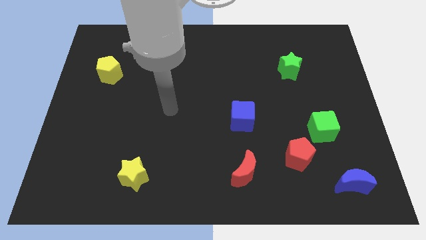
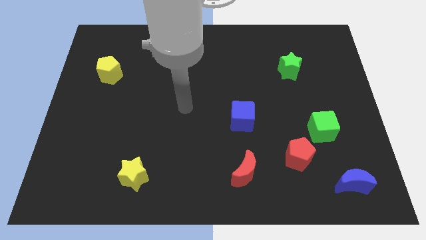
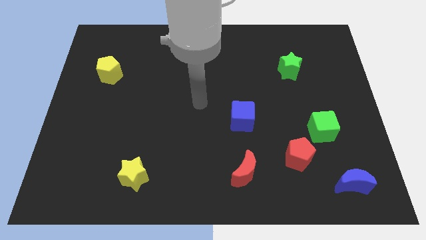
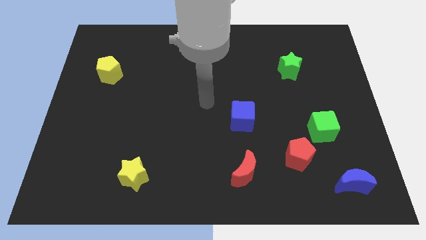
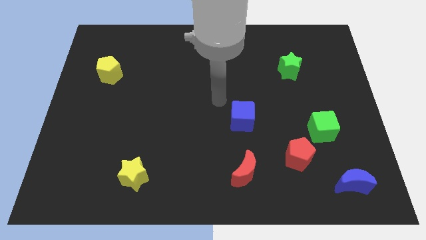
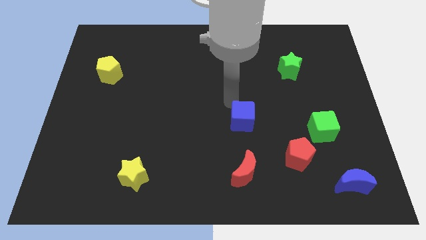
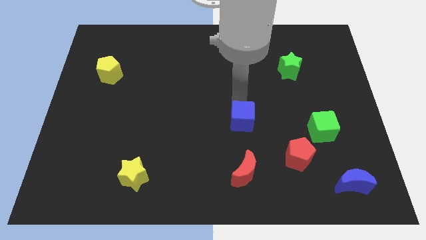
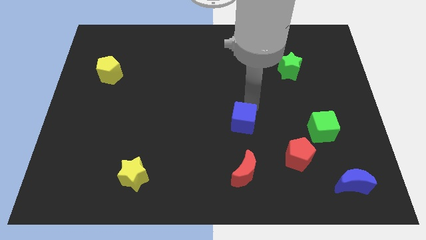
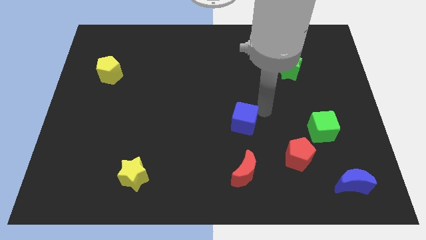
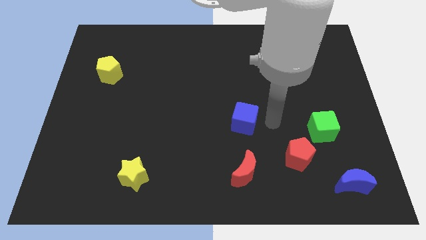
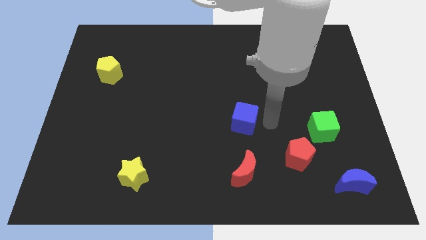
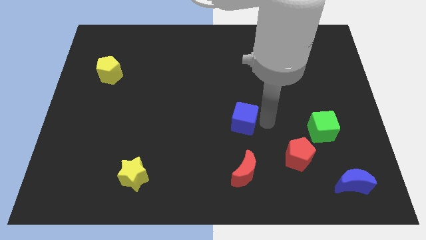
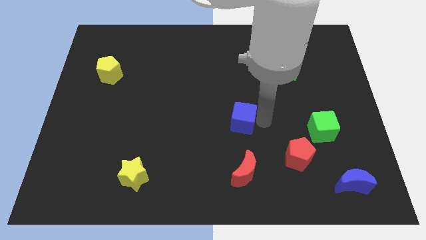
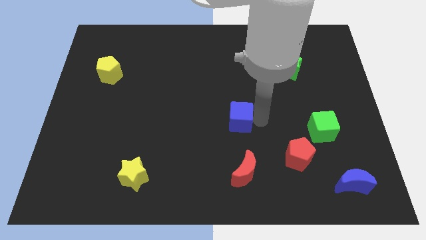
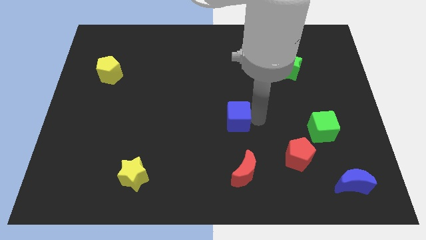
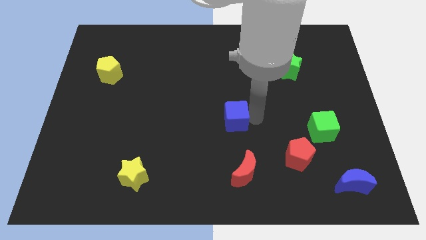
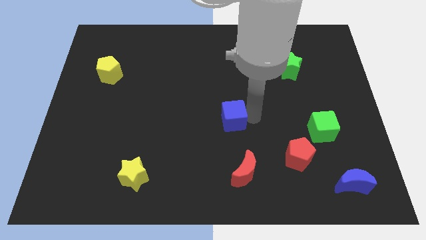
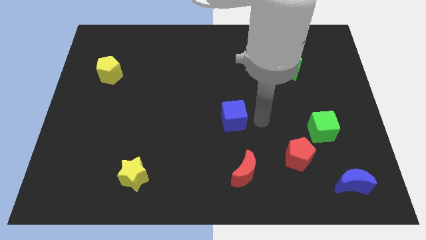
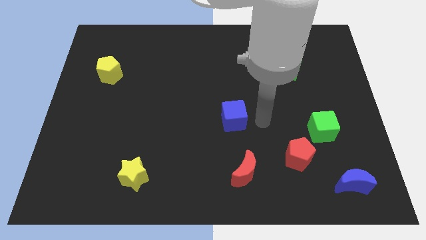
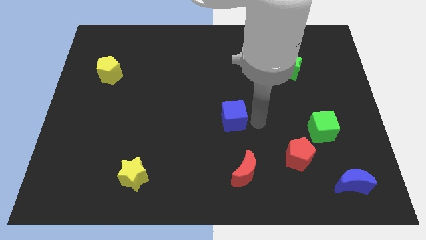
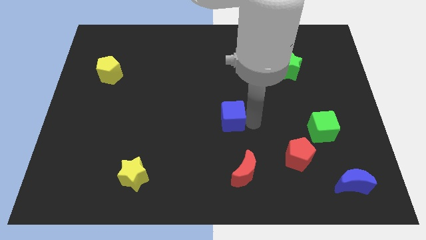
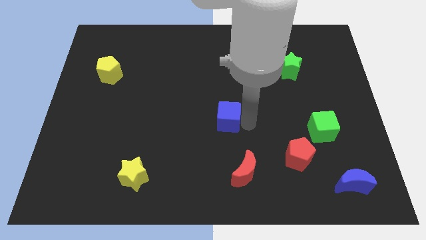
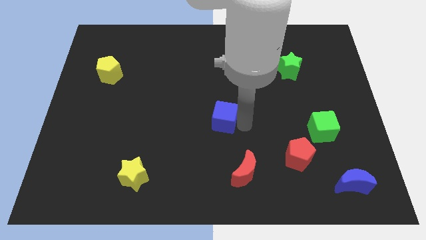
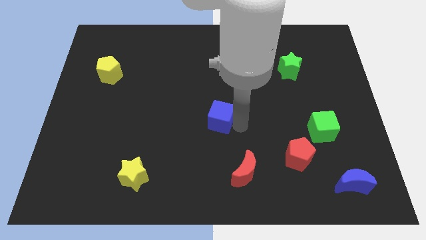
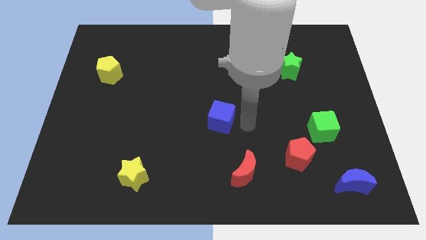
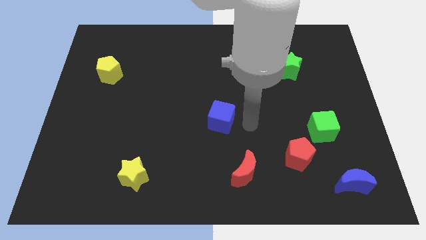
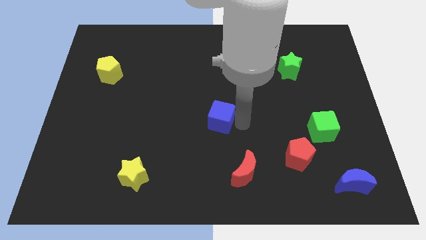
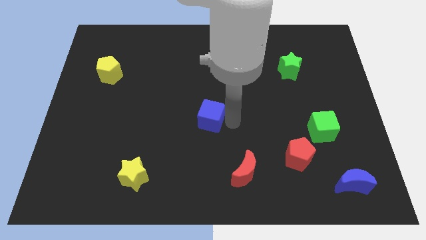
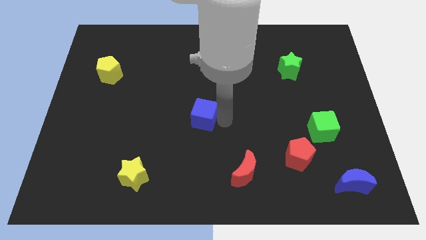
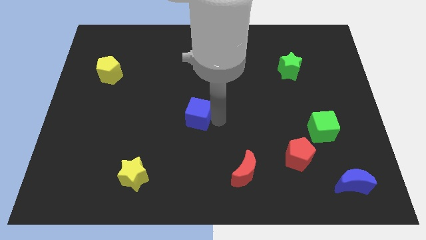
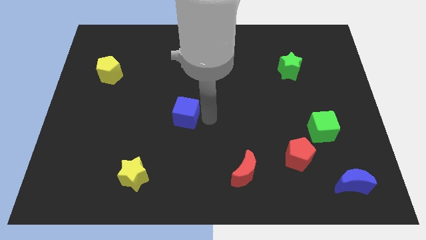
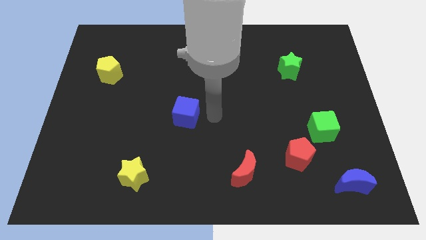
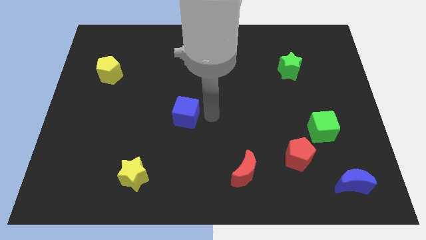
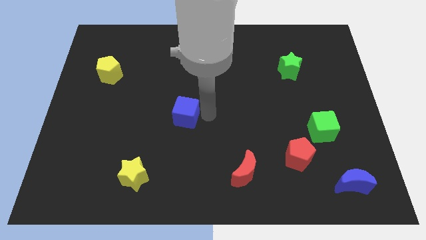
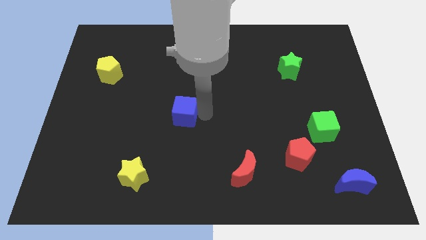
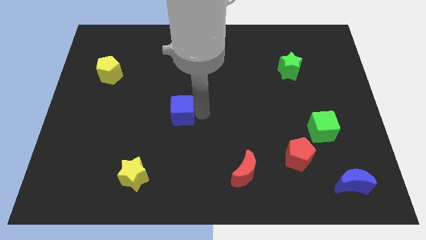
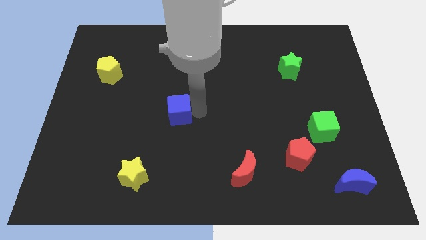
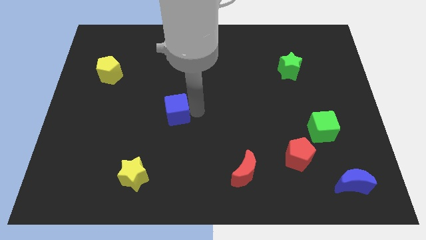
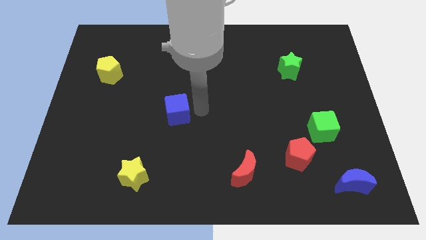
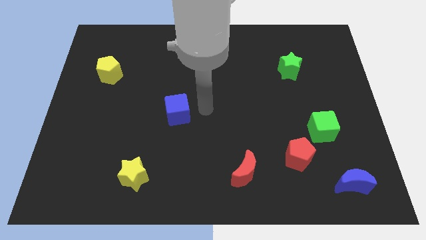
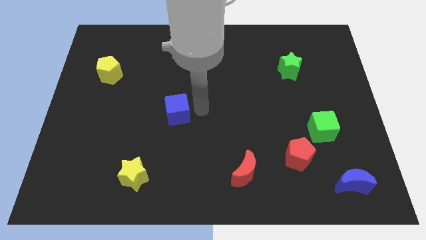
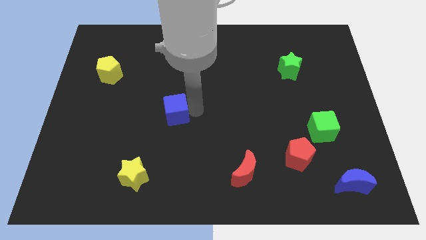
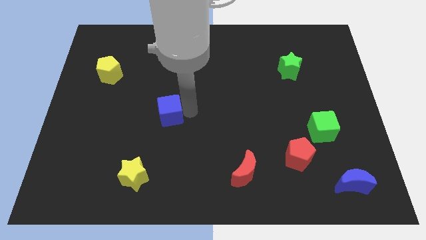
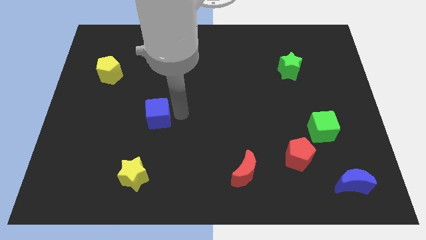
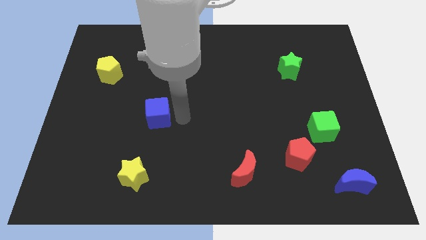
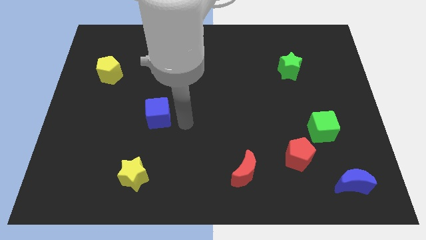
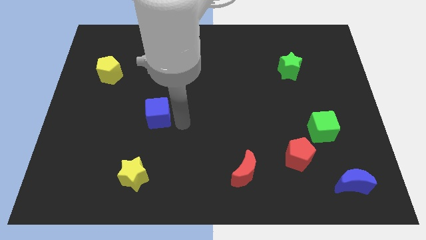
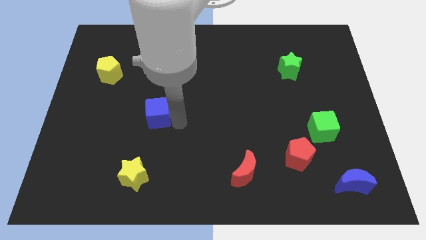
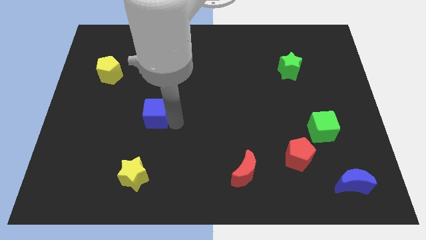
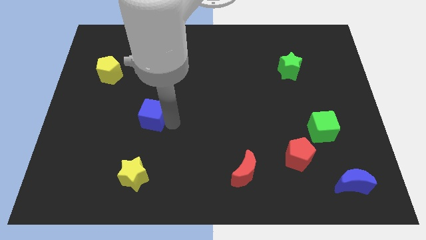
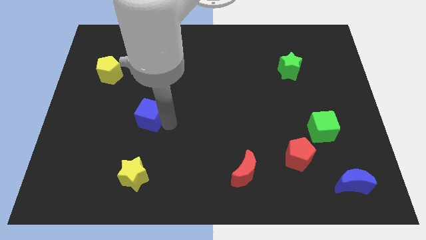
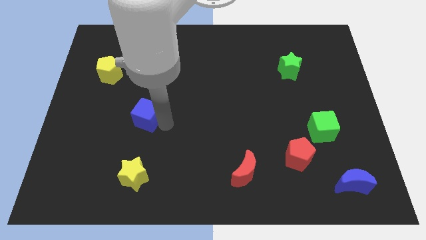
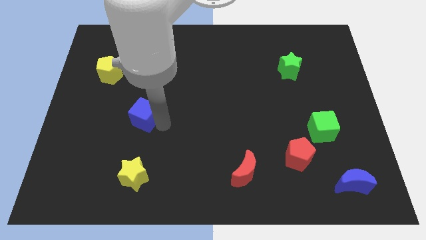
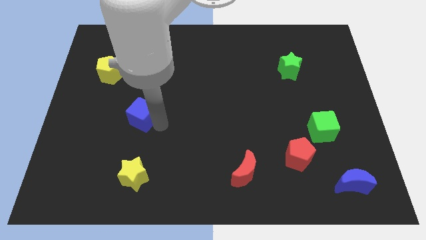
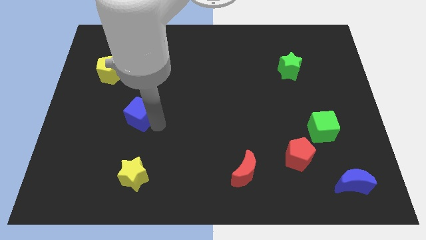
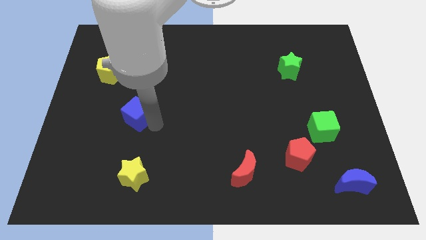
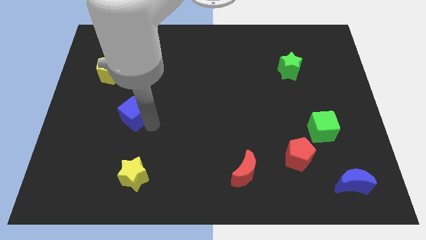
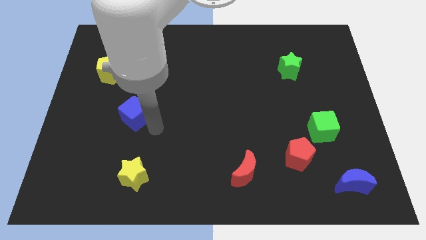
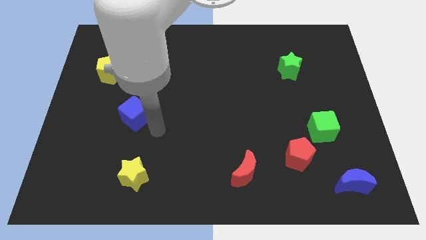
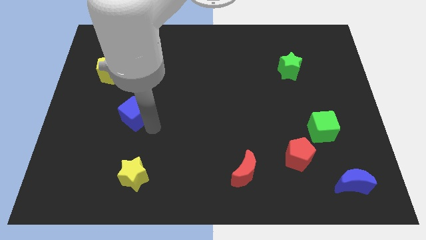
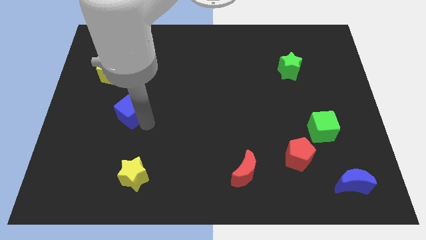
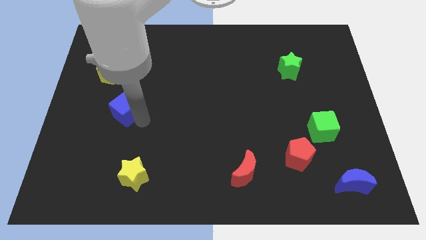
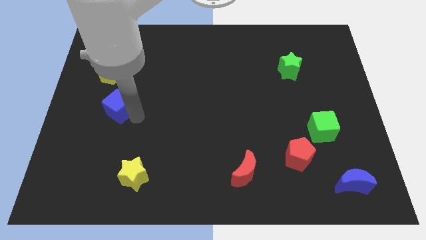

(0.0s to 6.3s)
put the blue cube to the bottom of the yellow pentagon

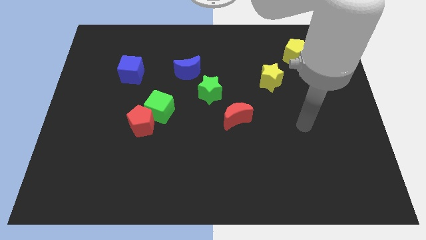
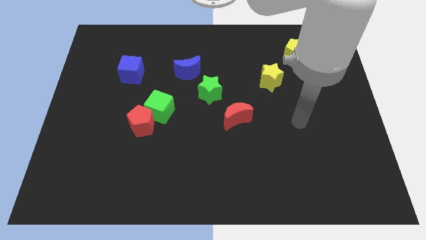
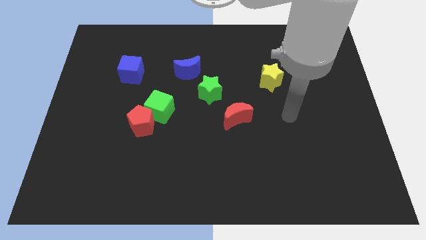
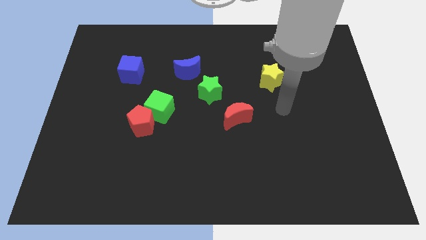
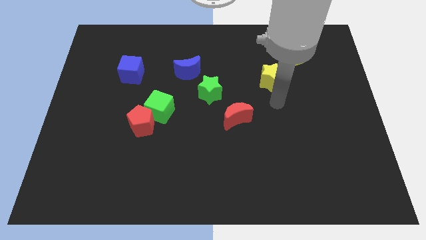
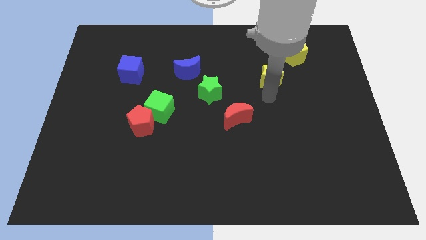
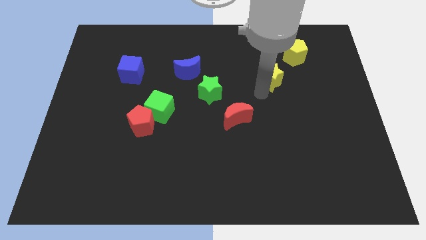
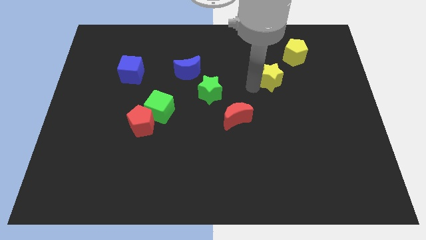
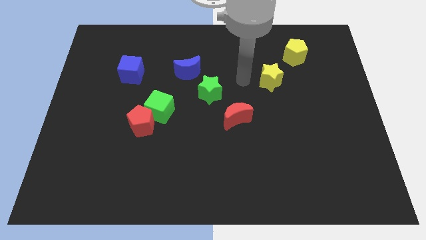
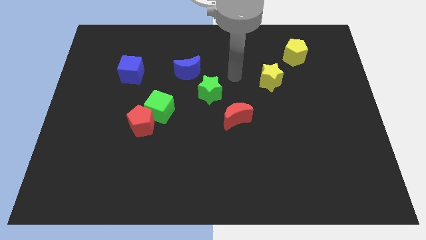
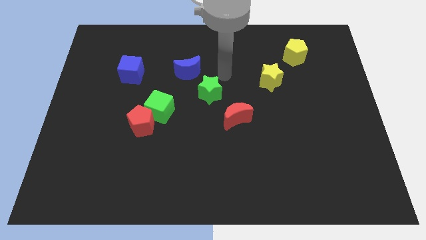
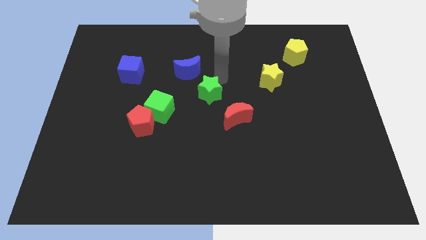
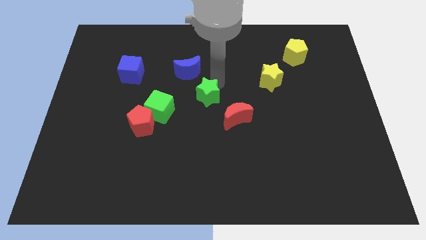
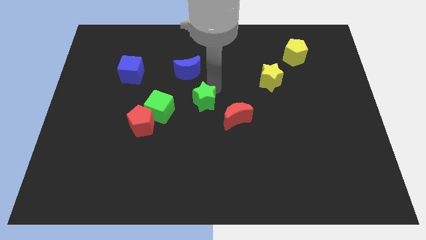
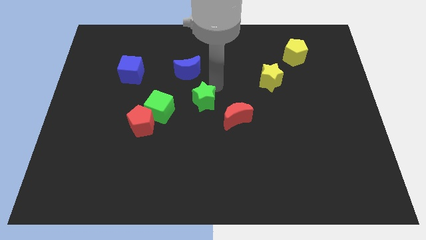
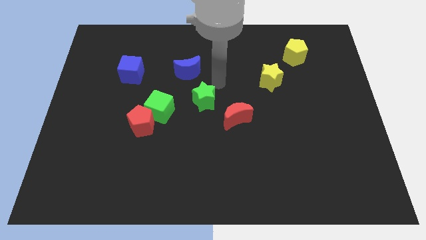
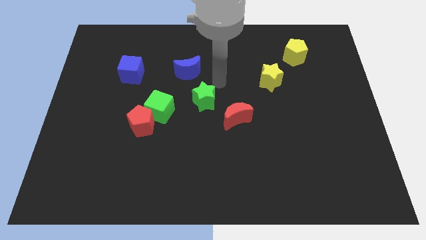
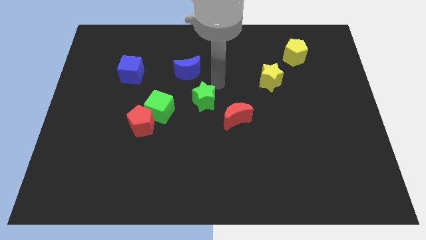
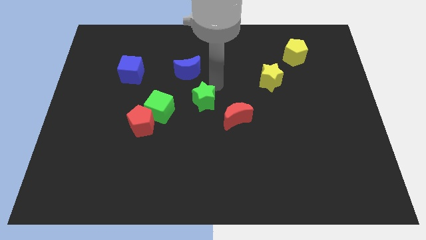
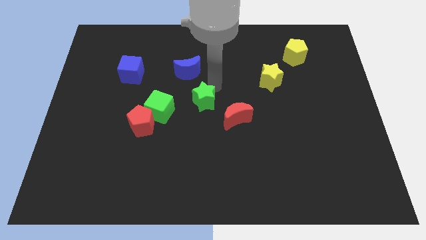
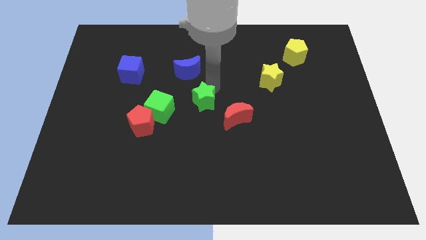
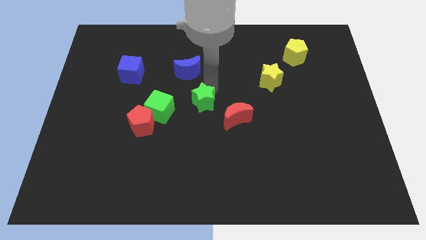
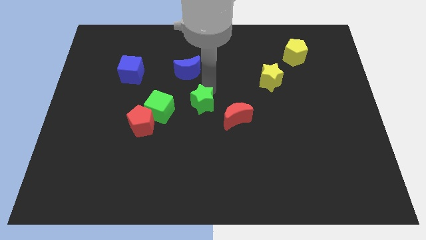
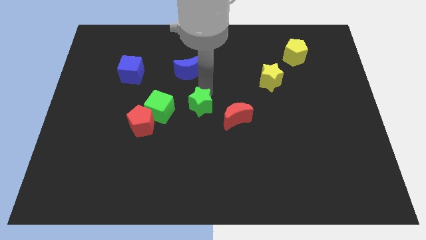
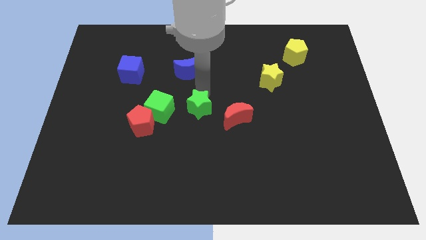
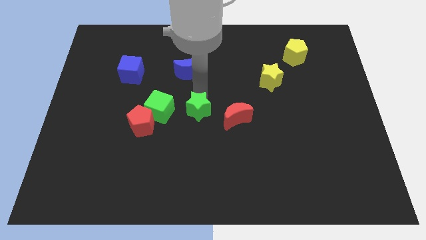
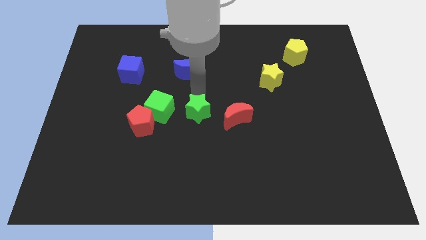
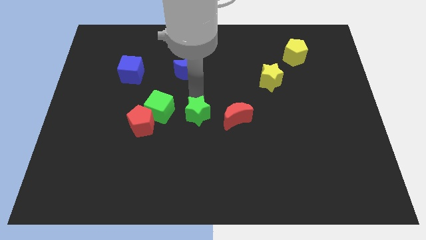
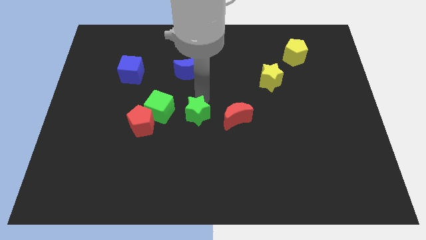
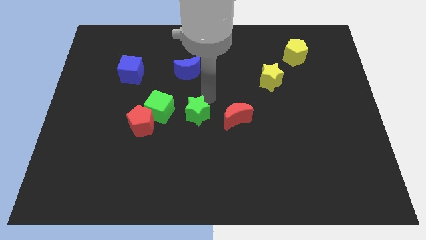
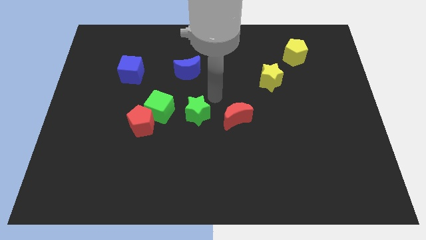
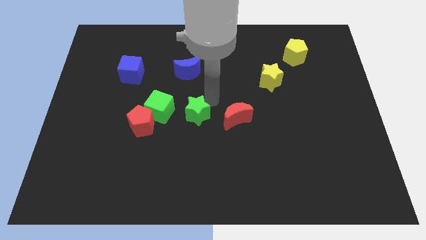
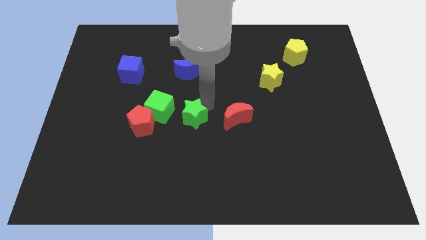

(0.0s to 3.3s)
put the green star to the bottom right side of the green cube
